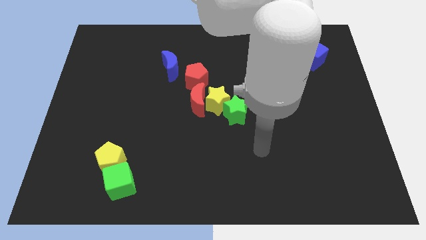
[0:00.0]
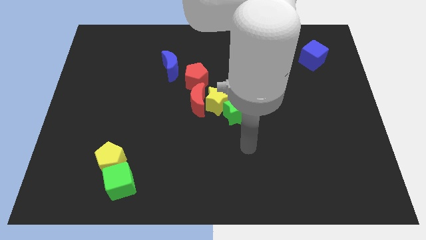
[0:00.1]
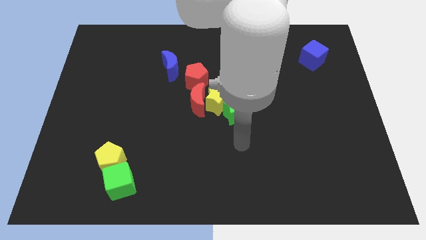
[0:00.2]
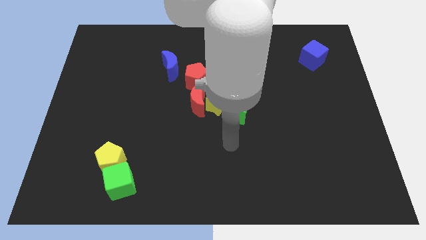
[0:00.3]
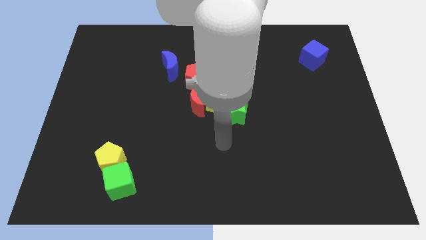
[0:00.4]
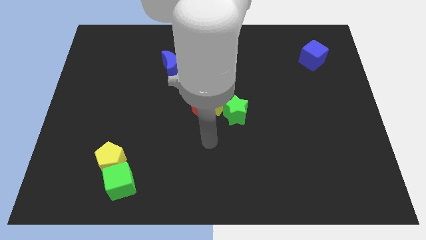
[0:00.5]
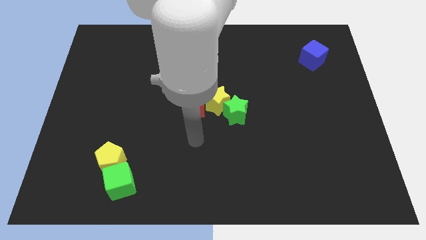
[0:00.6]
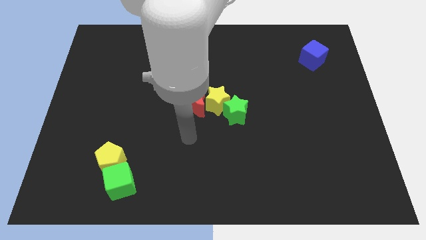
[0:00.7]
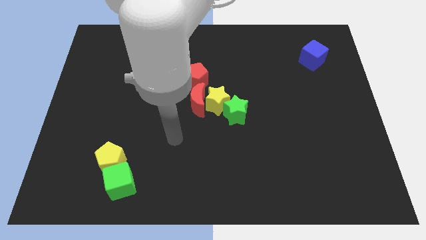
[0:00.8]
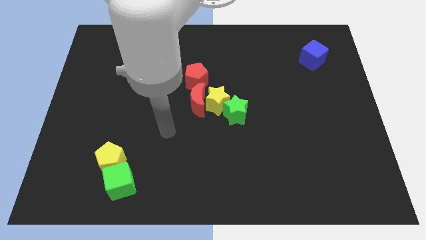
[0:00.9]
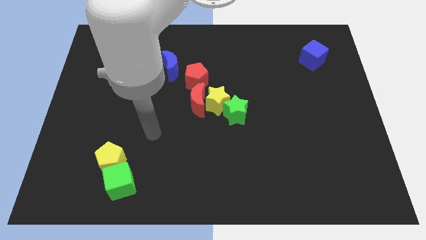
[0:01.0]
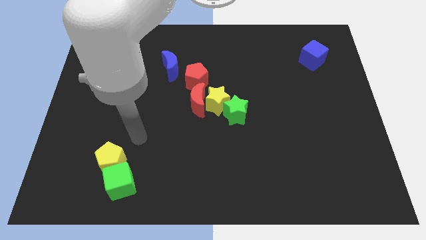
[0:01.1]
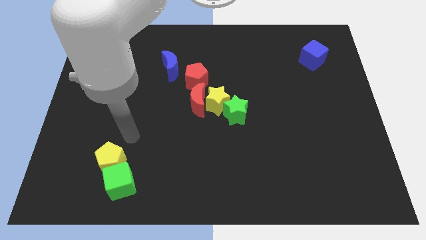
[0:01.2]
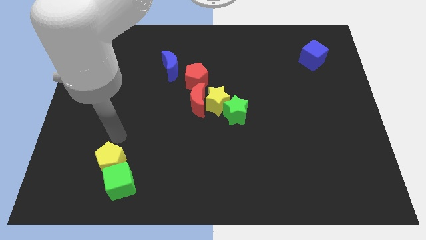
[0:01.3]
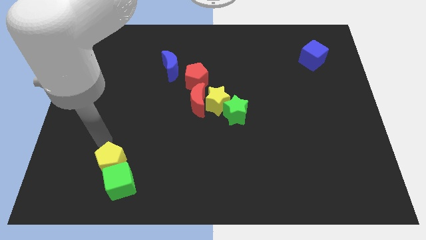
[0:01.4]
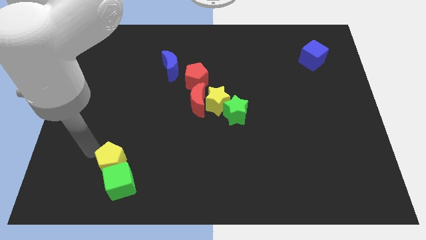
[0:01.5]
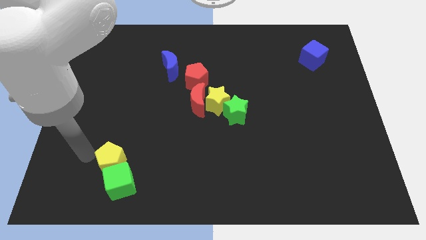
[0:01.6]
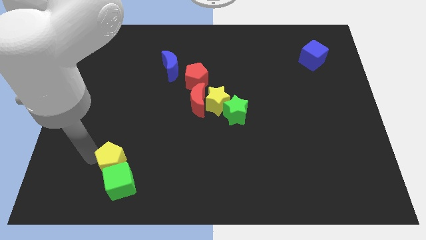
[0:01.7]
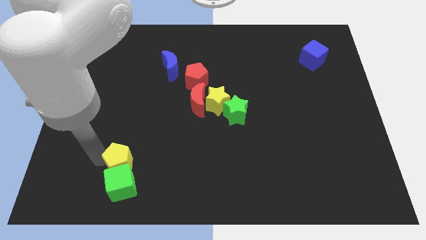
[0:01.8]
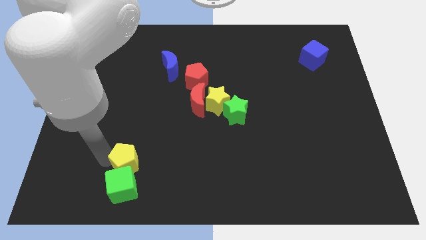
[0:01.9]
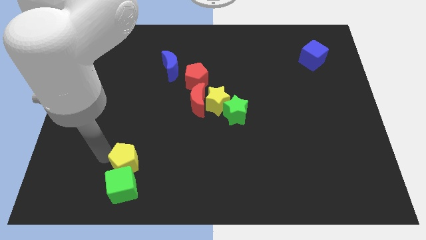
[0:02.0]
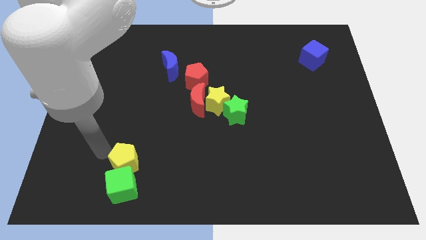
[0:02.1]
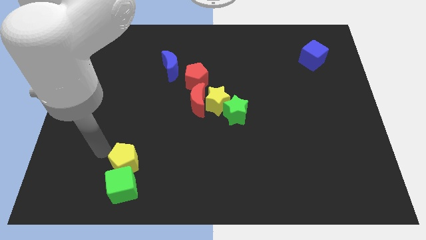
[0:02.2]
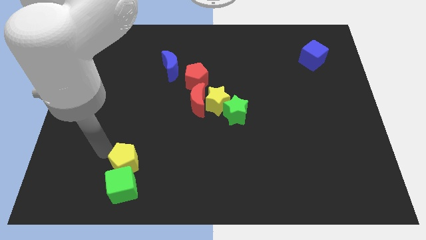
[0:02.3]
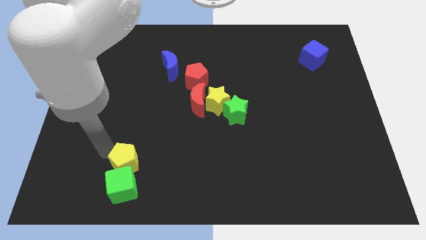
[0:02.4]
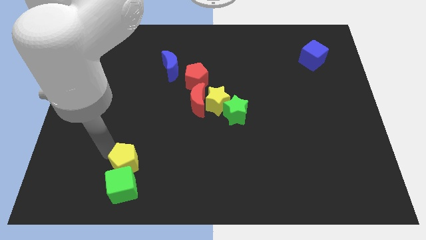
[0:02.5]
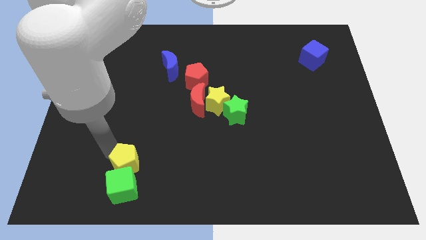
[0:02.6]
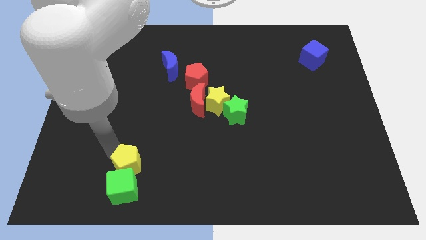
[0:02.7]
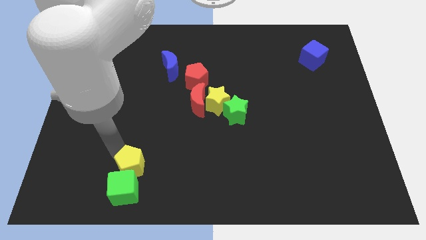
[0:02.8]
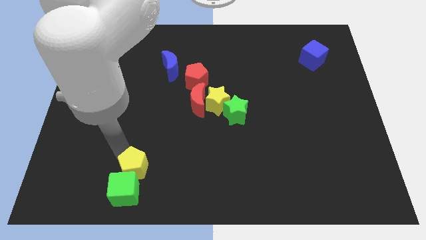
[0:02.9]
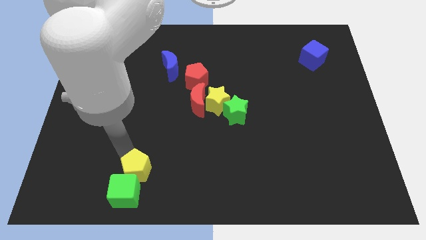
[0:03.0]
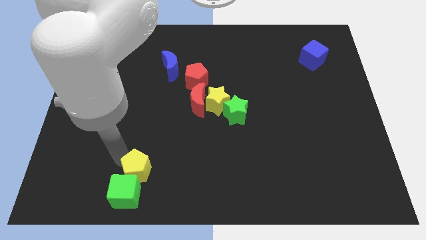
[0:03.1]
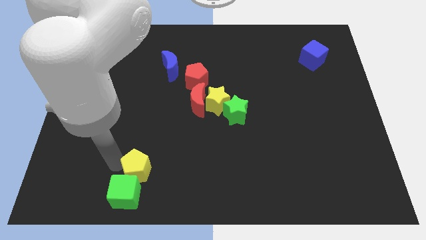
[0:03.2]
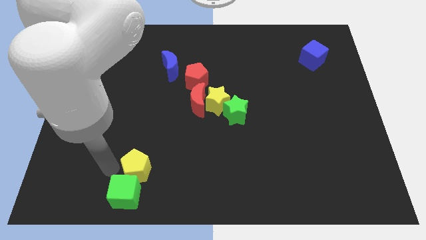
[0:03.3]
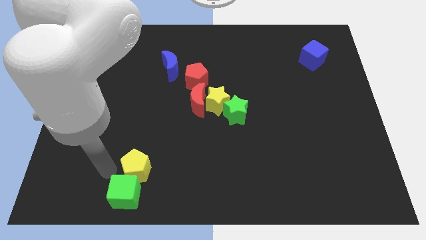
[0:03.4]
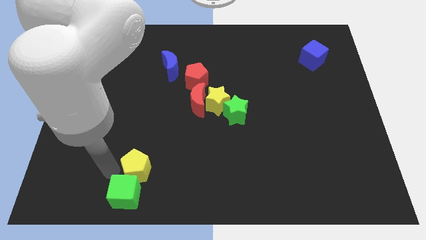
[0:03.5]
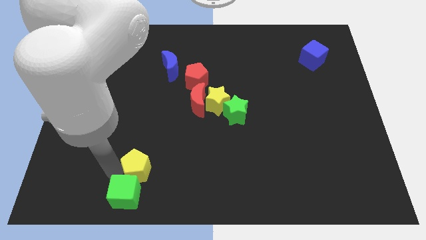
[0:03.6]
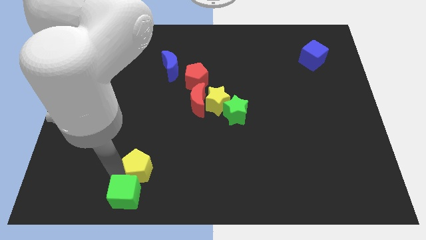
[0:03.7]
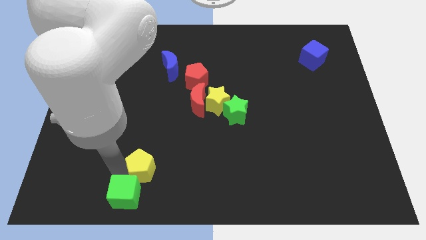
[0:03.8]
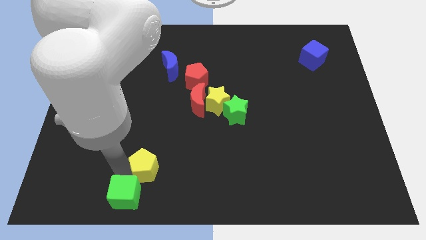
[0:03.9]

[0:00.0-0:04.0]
move the yellow pentagon right a bit

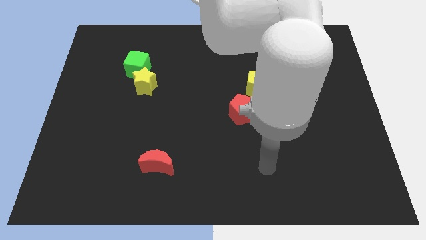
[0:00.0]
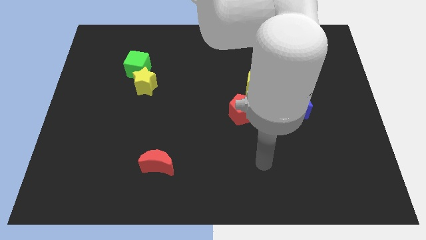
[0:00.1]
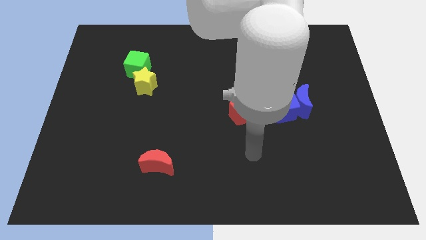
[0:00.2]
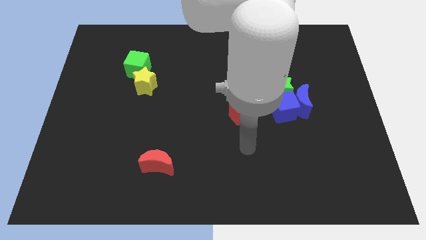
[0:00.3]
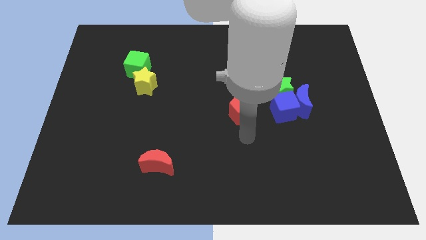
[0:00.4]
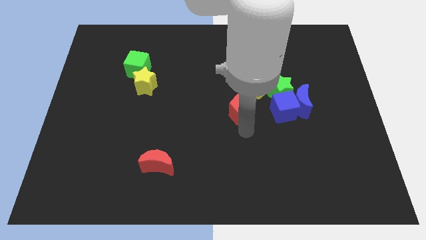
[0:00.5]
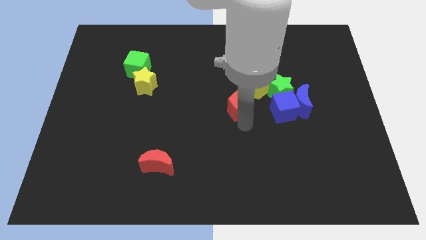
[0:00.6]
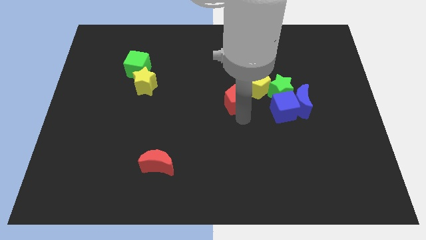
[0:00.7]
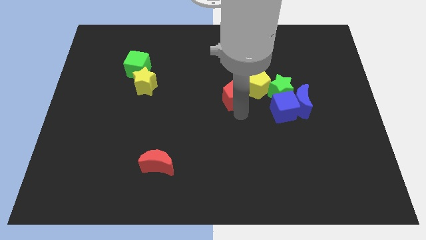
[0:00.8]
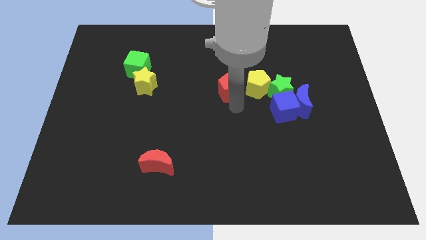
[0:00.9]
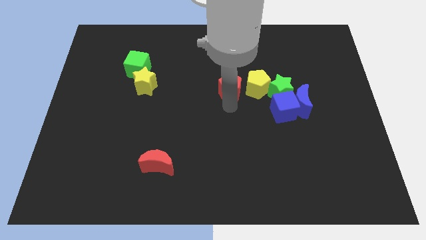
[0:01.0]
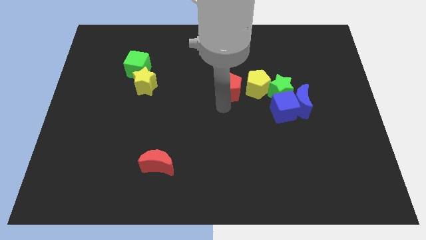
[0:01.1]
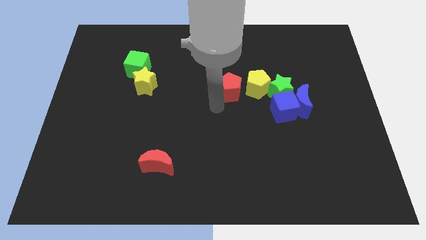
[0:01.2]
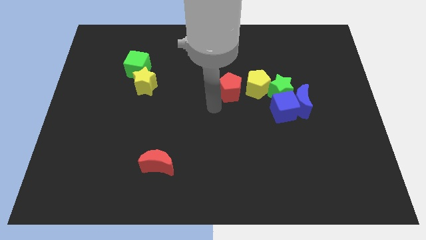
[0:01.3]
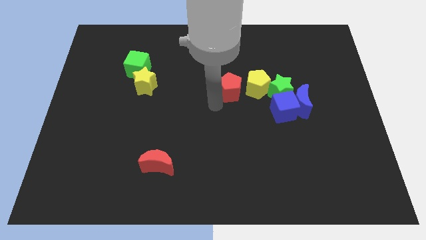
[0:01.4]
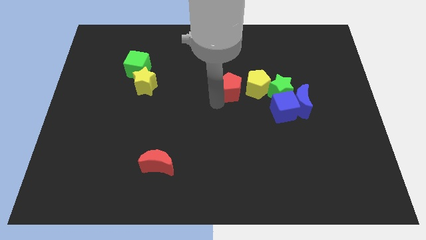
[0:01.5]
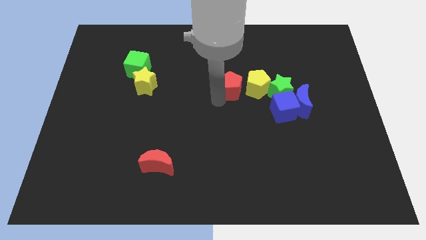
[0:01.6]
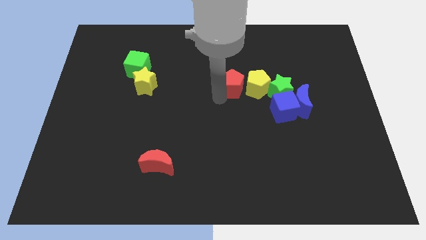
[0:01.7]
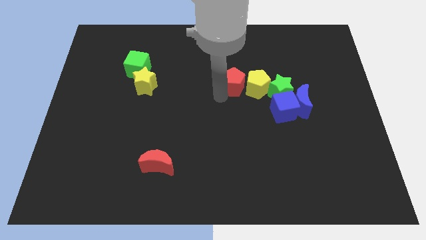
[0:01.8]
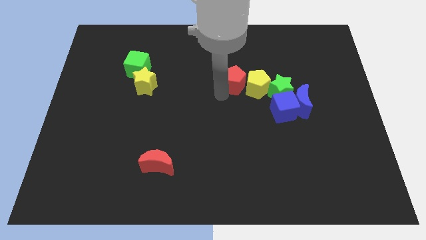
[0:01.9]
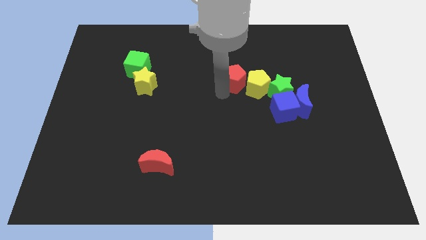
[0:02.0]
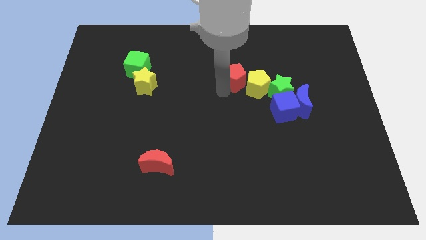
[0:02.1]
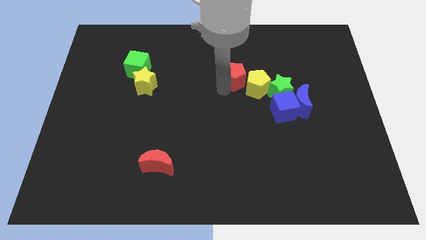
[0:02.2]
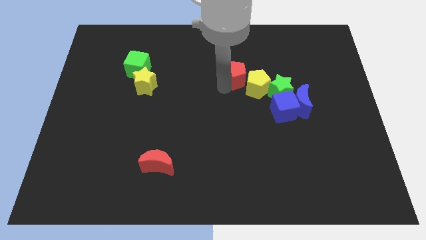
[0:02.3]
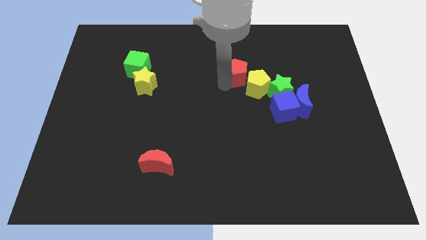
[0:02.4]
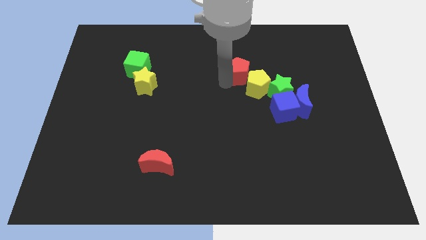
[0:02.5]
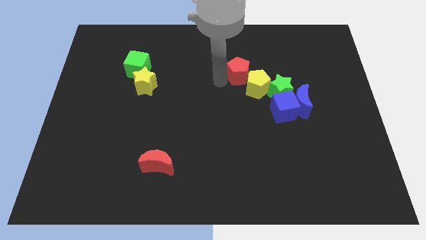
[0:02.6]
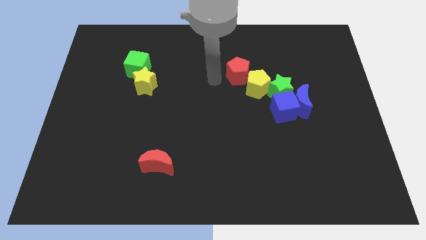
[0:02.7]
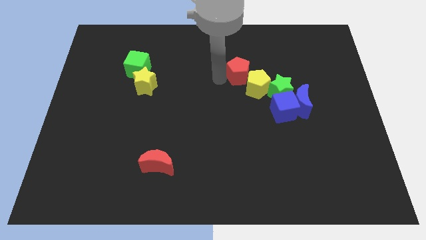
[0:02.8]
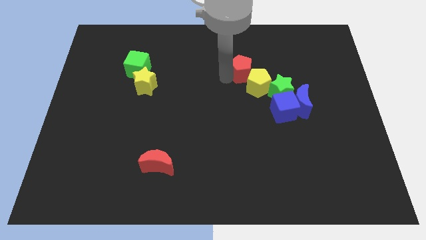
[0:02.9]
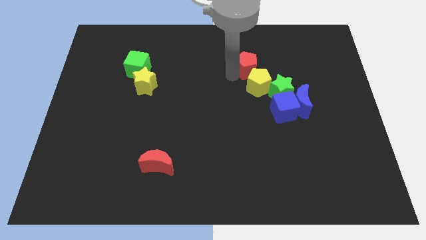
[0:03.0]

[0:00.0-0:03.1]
slightly push the red pentagon up and then right

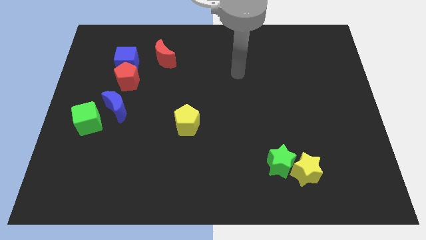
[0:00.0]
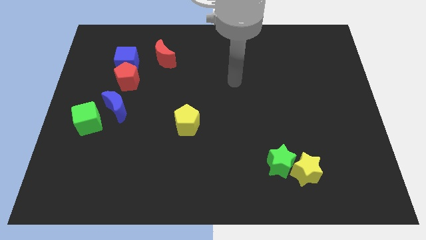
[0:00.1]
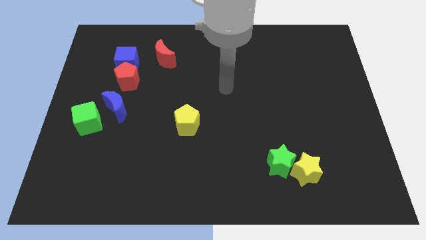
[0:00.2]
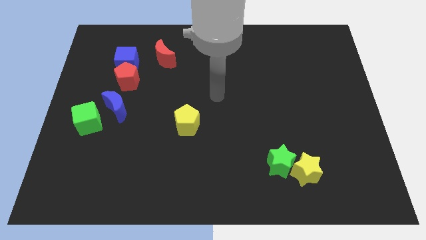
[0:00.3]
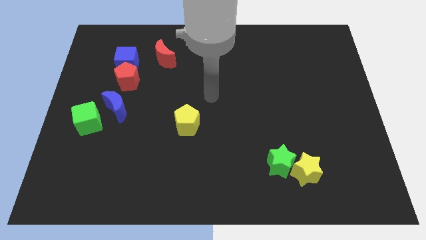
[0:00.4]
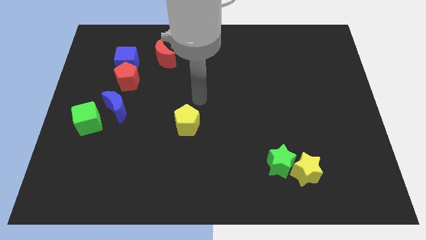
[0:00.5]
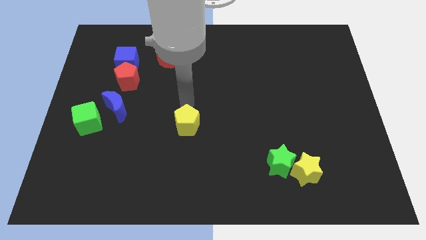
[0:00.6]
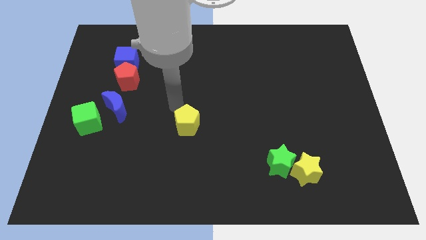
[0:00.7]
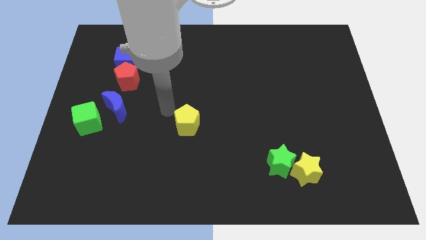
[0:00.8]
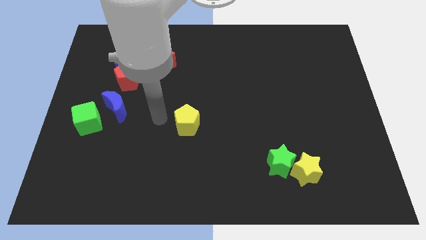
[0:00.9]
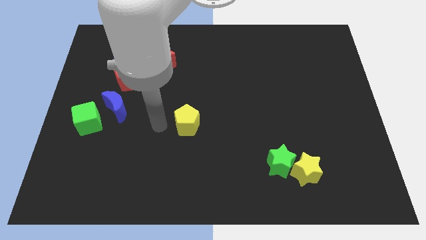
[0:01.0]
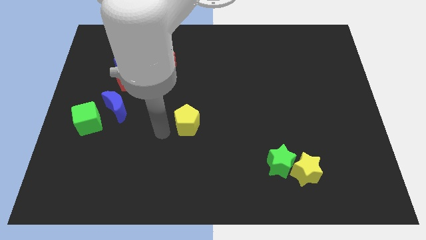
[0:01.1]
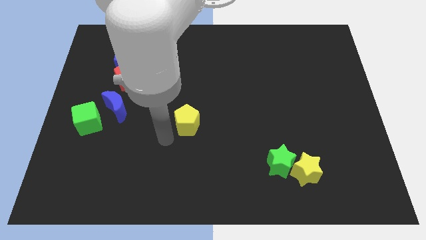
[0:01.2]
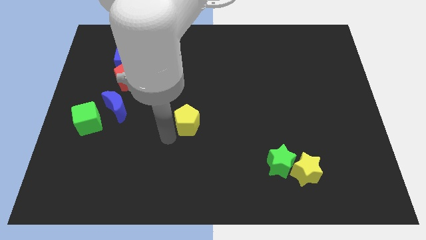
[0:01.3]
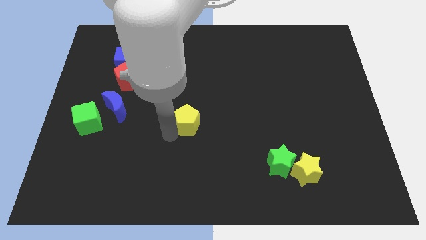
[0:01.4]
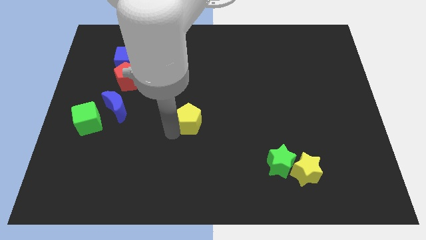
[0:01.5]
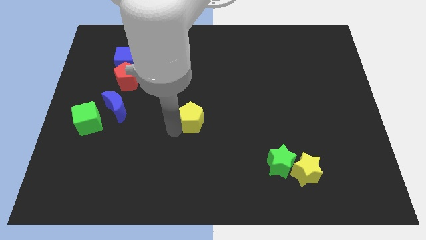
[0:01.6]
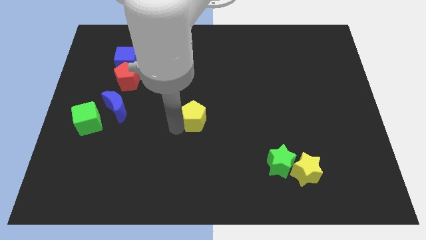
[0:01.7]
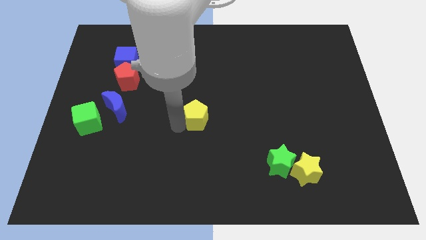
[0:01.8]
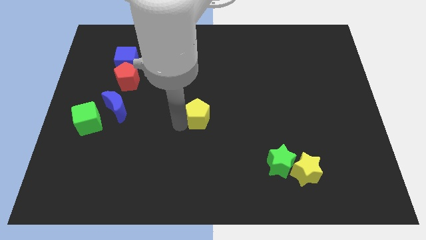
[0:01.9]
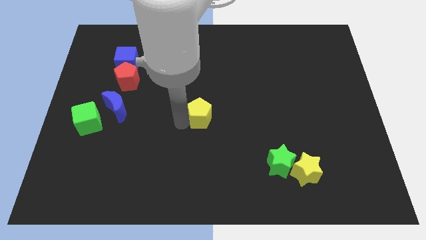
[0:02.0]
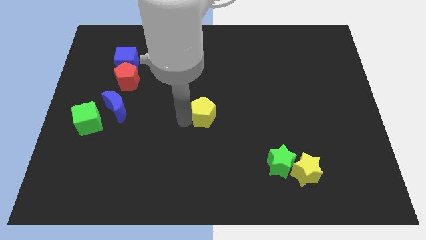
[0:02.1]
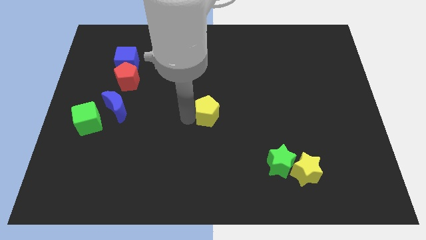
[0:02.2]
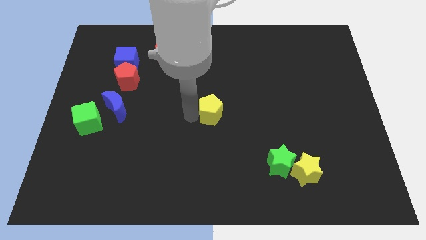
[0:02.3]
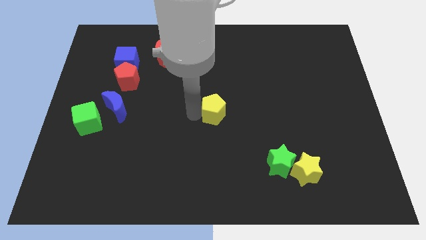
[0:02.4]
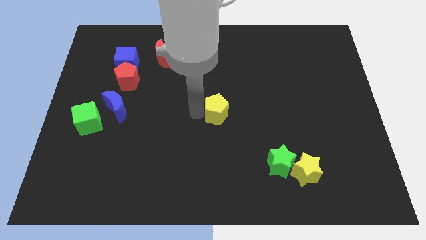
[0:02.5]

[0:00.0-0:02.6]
move the yellow pentagon a little bit diagonally up and to the right
